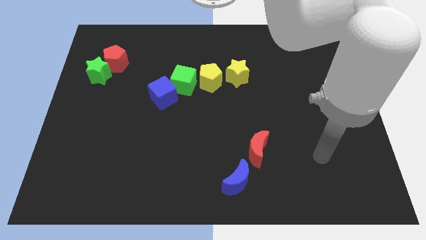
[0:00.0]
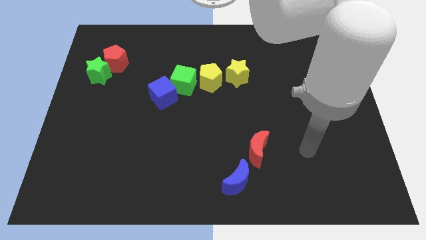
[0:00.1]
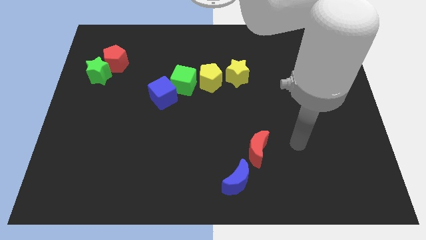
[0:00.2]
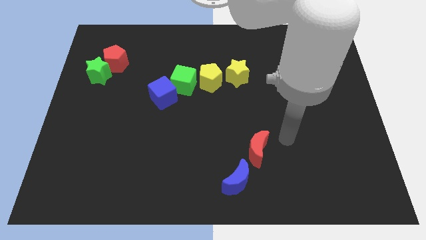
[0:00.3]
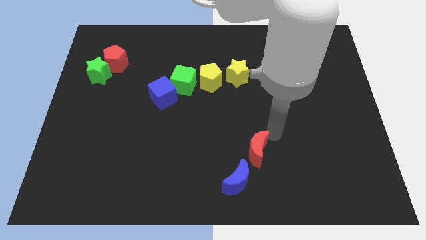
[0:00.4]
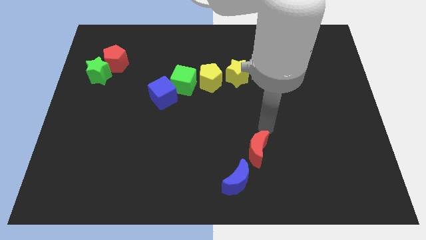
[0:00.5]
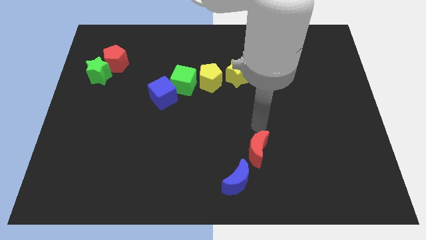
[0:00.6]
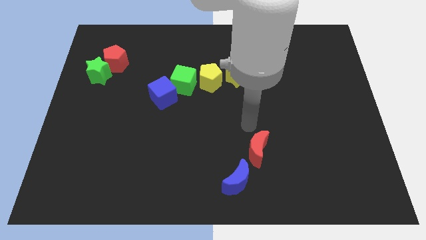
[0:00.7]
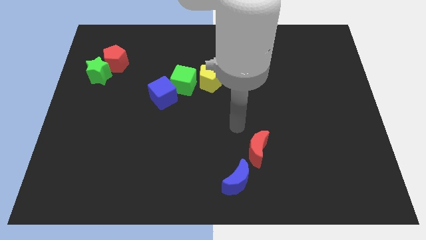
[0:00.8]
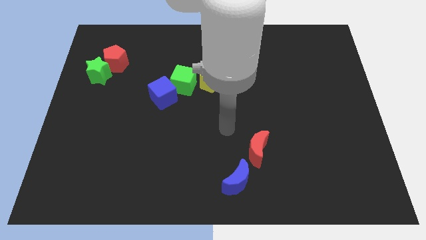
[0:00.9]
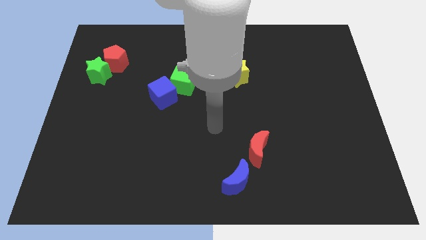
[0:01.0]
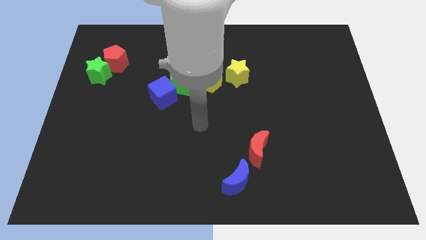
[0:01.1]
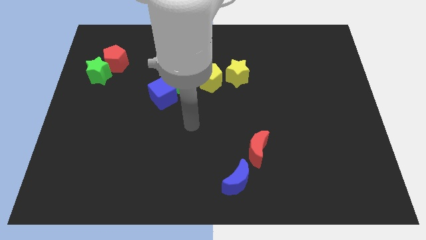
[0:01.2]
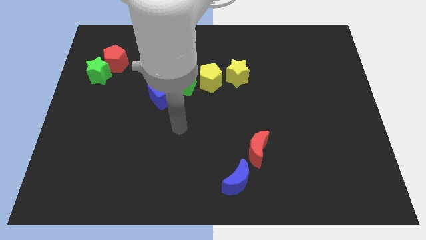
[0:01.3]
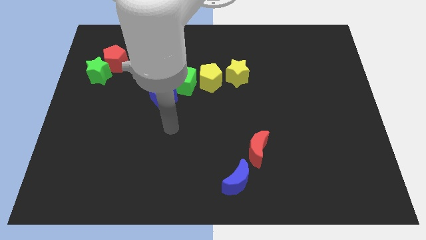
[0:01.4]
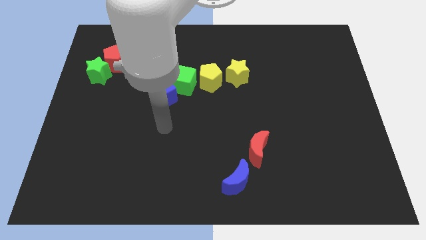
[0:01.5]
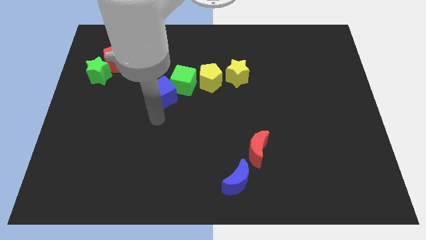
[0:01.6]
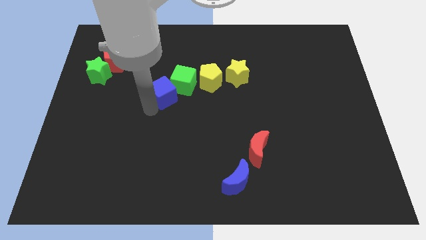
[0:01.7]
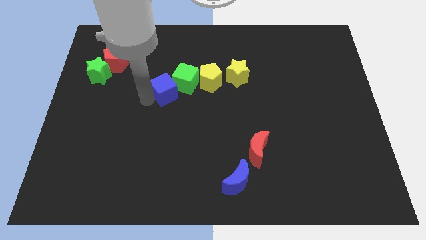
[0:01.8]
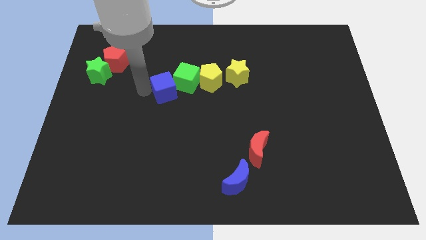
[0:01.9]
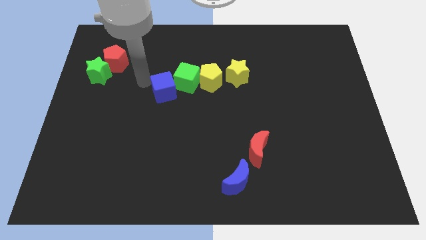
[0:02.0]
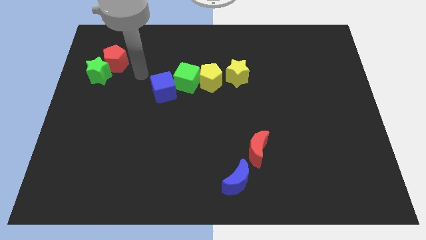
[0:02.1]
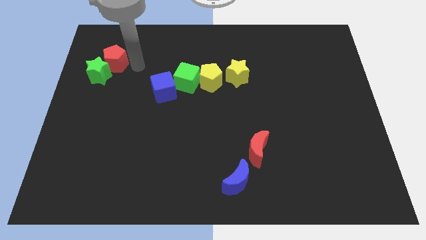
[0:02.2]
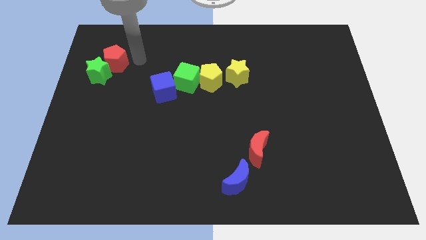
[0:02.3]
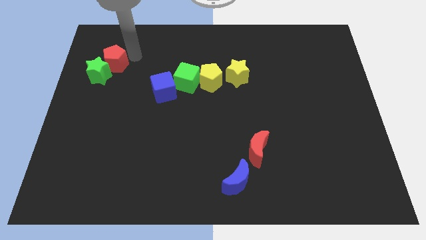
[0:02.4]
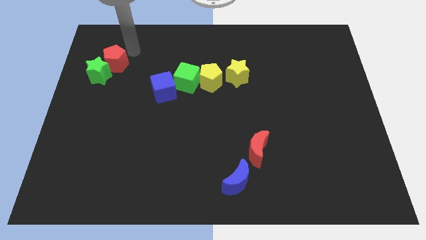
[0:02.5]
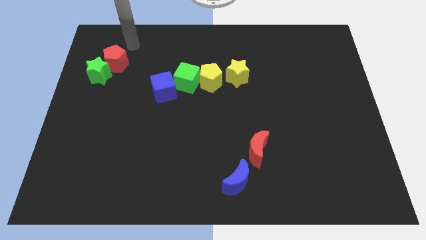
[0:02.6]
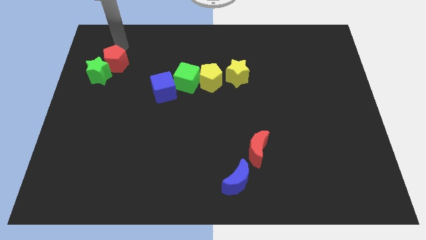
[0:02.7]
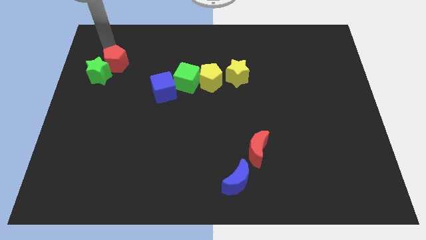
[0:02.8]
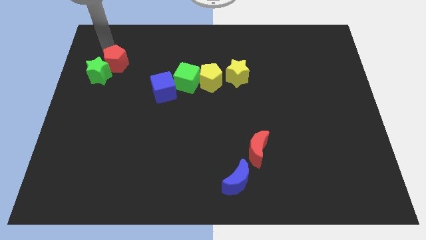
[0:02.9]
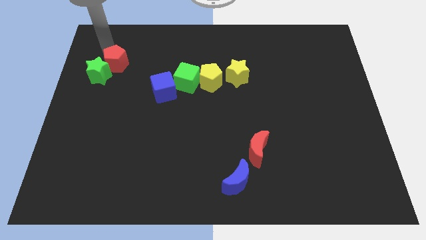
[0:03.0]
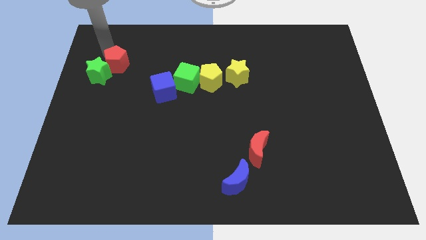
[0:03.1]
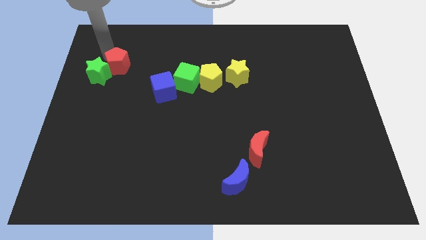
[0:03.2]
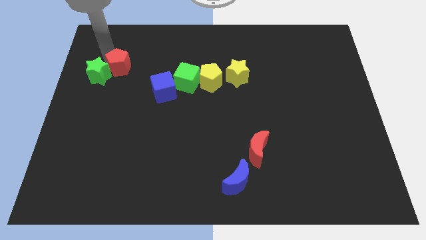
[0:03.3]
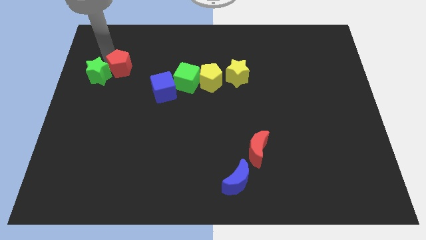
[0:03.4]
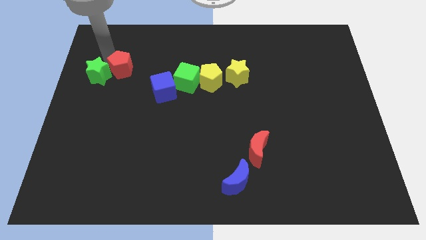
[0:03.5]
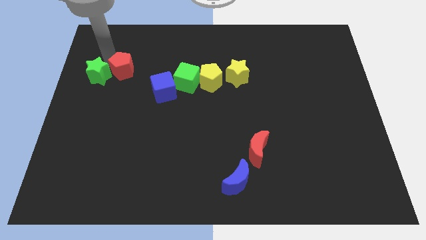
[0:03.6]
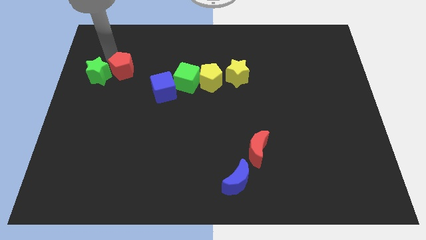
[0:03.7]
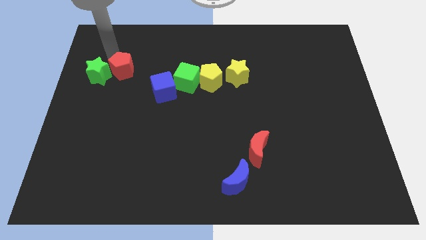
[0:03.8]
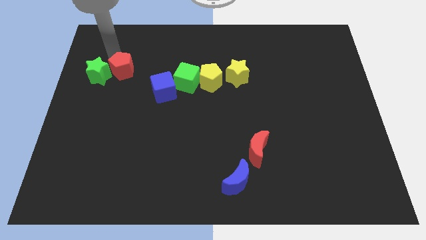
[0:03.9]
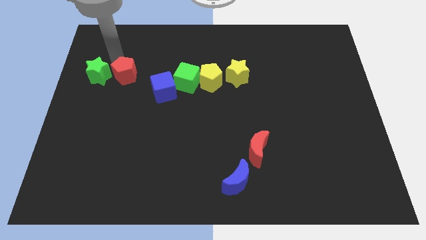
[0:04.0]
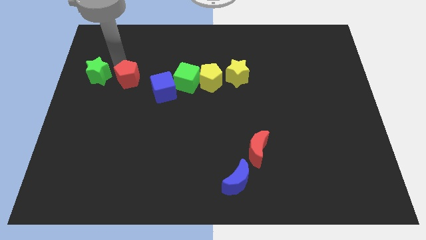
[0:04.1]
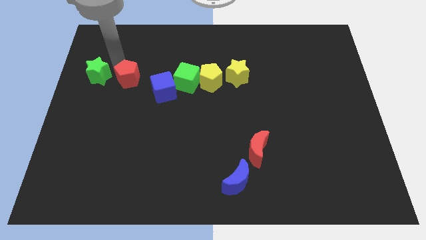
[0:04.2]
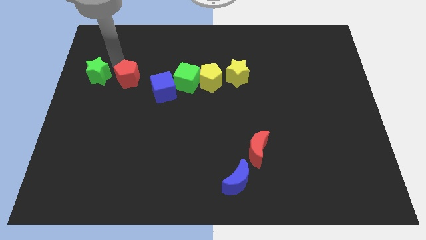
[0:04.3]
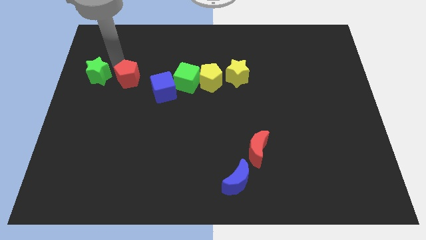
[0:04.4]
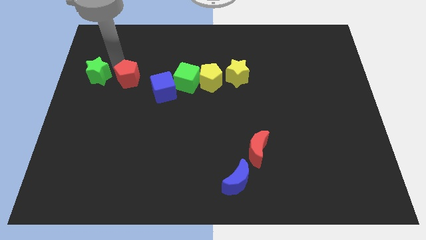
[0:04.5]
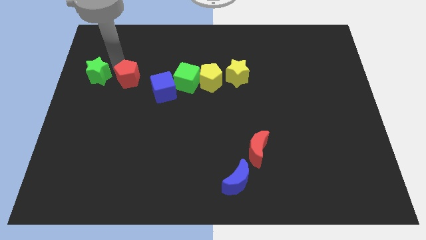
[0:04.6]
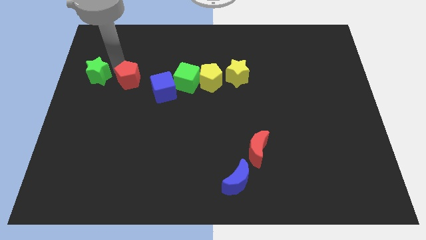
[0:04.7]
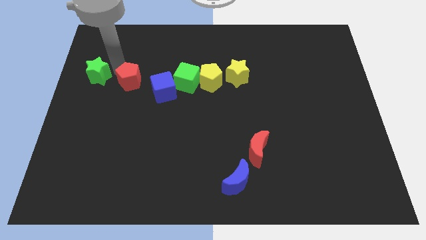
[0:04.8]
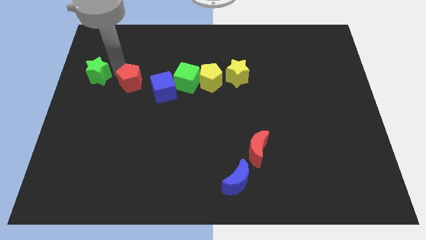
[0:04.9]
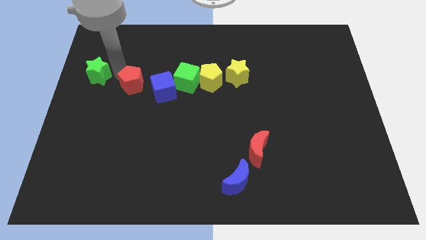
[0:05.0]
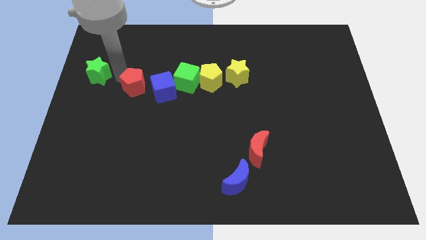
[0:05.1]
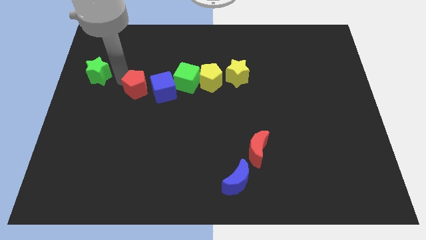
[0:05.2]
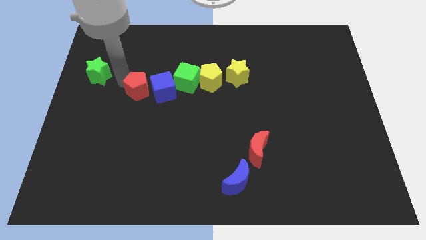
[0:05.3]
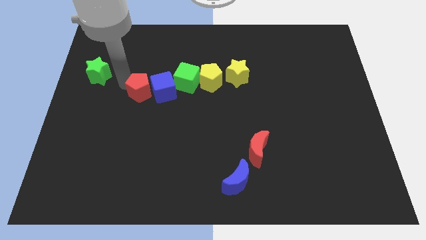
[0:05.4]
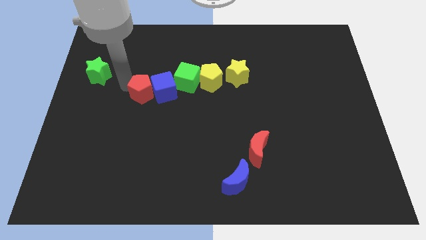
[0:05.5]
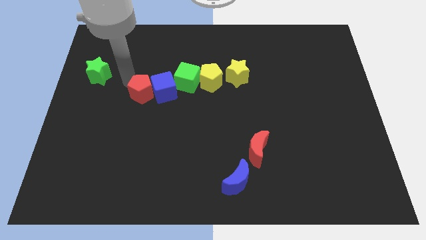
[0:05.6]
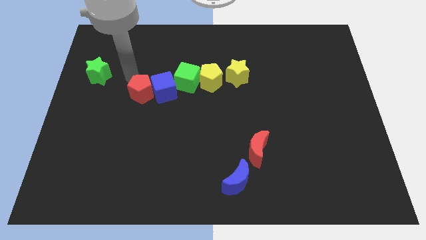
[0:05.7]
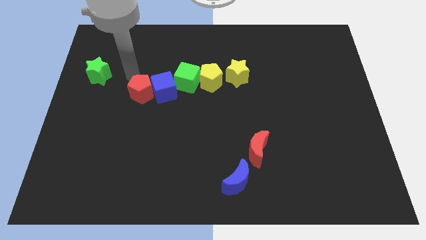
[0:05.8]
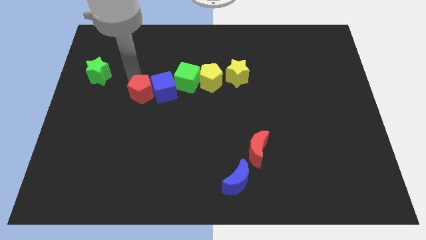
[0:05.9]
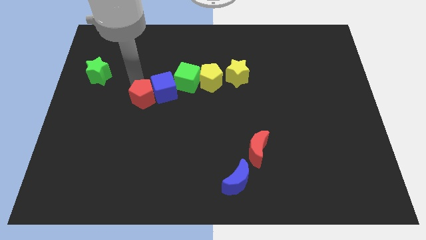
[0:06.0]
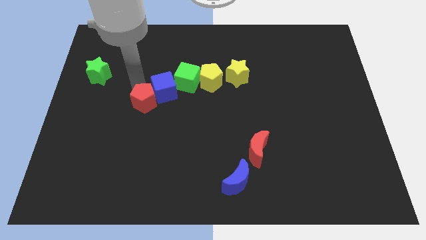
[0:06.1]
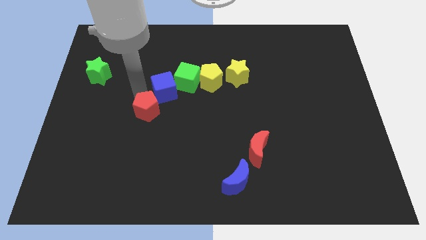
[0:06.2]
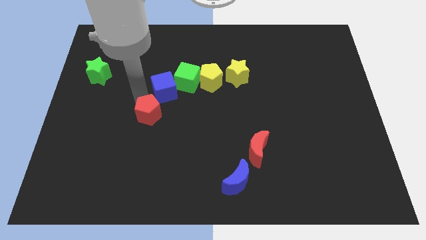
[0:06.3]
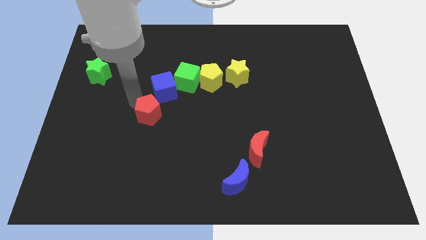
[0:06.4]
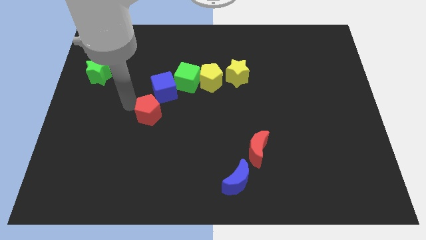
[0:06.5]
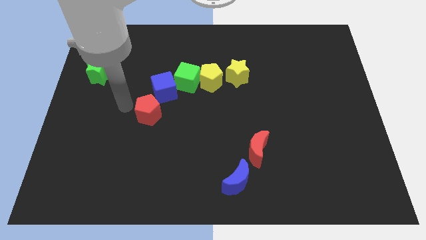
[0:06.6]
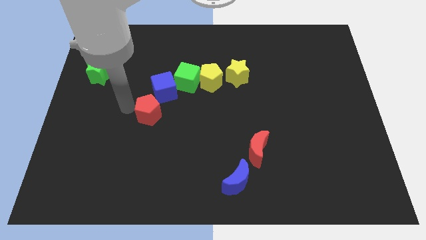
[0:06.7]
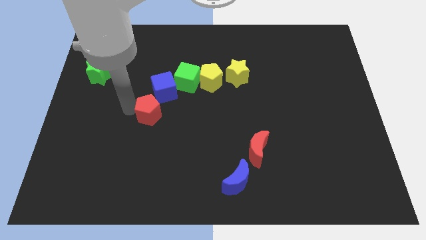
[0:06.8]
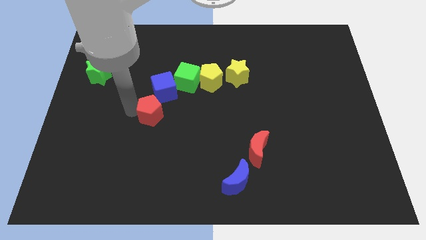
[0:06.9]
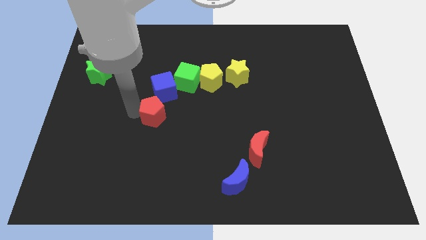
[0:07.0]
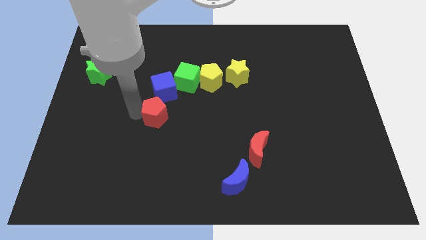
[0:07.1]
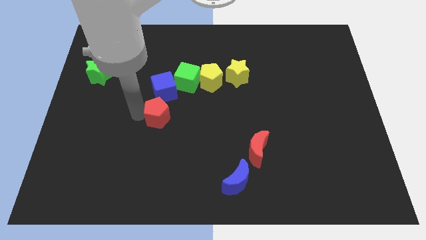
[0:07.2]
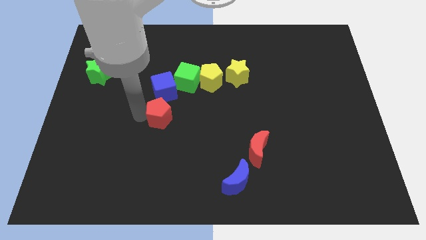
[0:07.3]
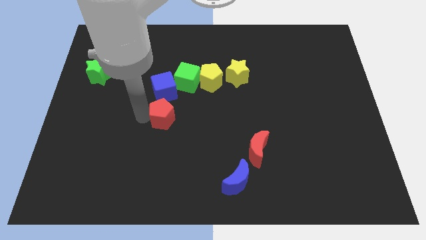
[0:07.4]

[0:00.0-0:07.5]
put the red pentagon to the middle

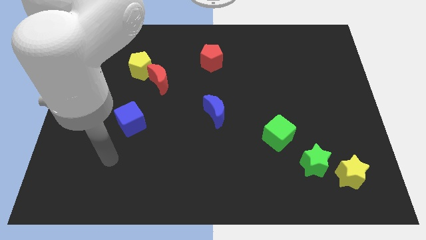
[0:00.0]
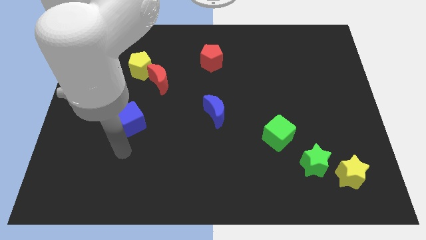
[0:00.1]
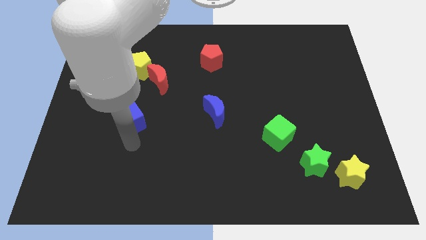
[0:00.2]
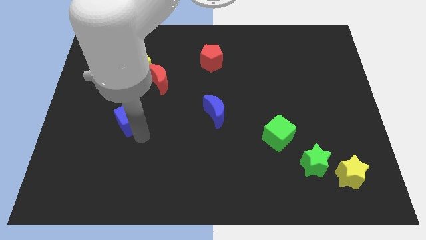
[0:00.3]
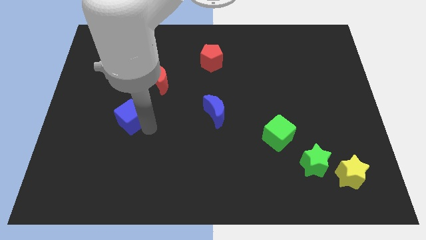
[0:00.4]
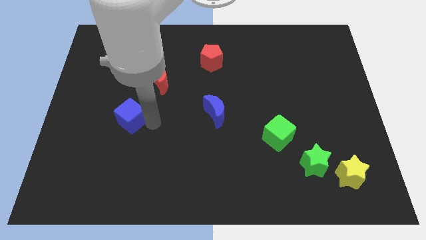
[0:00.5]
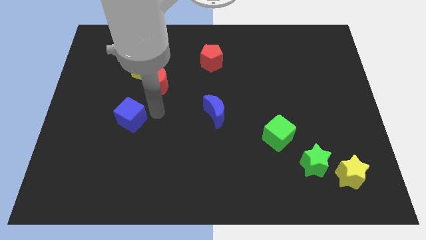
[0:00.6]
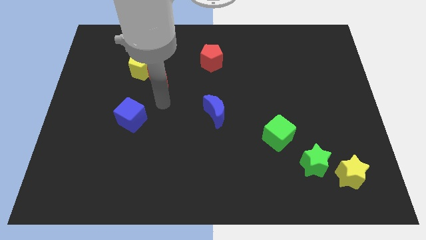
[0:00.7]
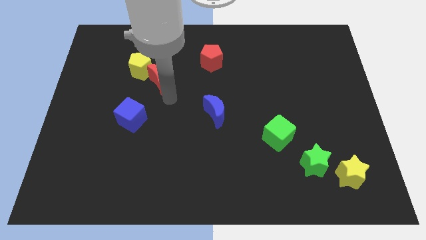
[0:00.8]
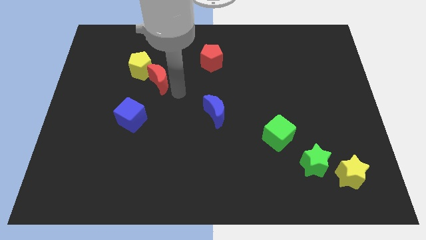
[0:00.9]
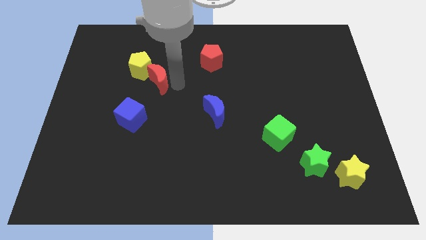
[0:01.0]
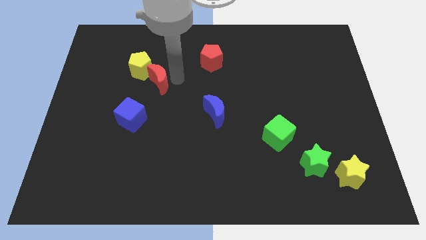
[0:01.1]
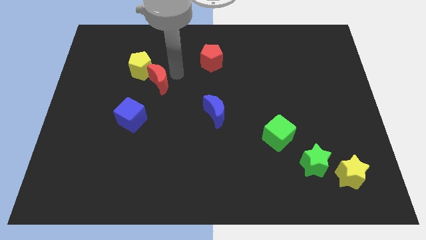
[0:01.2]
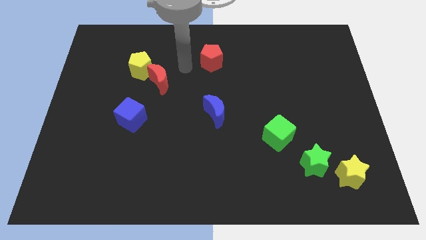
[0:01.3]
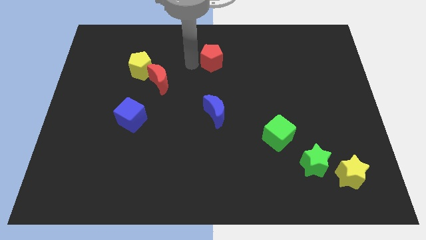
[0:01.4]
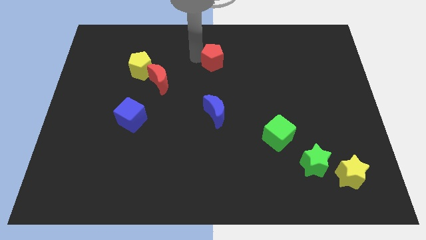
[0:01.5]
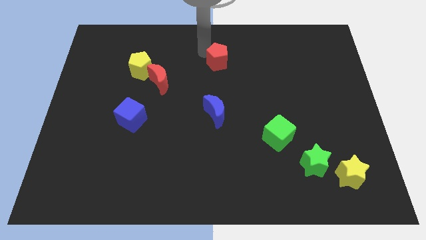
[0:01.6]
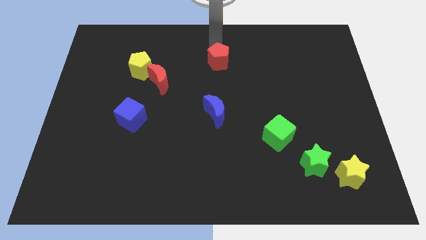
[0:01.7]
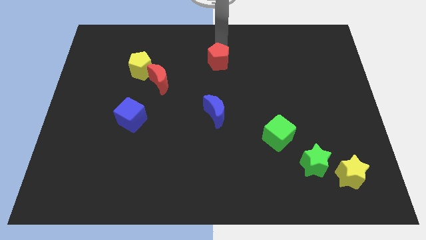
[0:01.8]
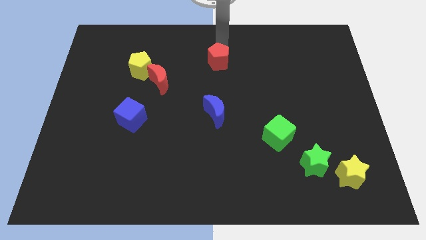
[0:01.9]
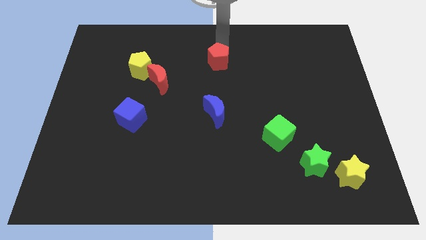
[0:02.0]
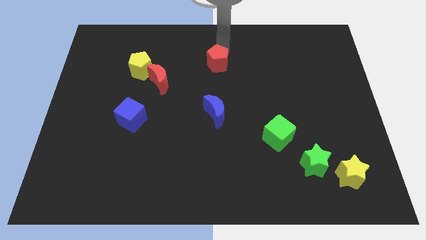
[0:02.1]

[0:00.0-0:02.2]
push the red pentagon to the middle
